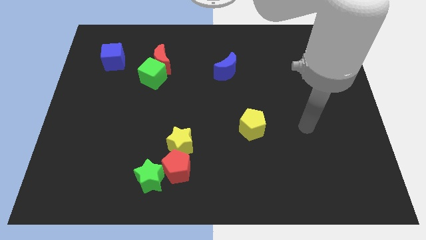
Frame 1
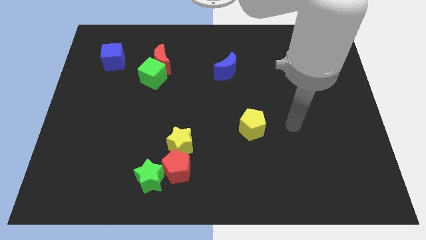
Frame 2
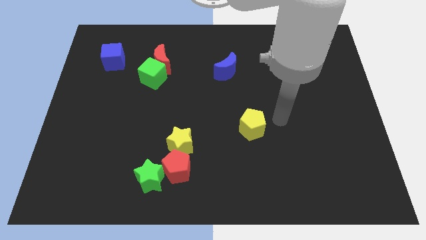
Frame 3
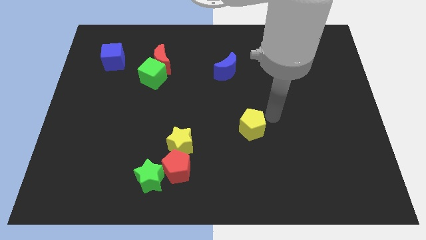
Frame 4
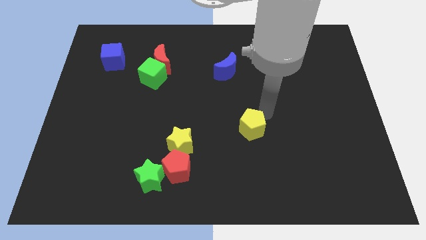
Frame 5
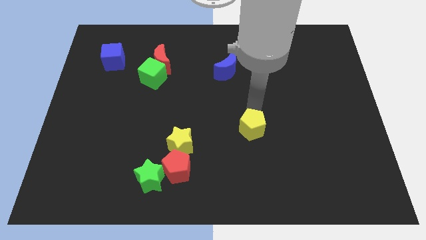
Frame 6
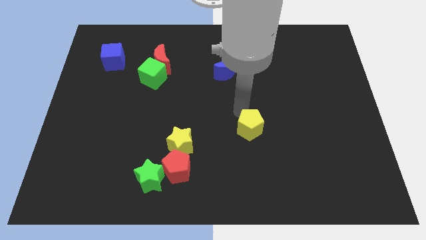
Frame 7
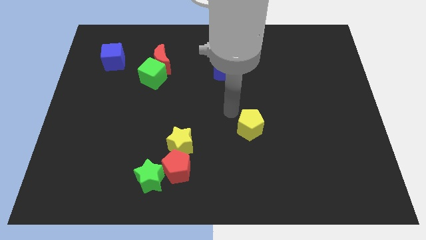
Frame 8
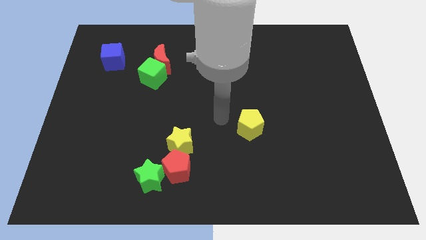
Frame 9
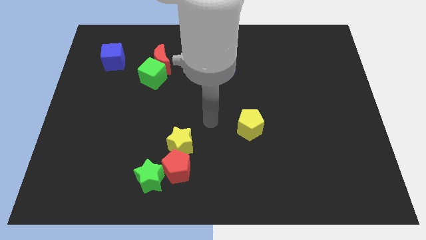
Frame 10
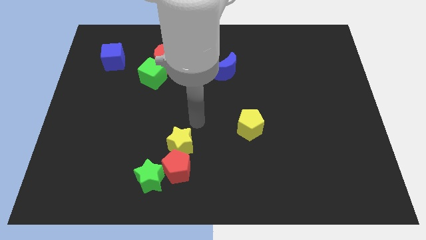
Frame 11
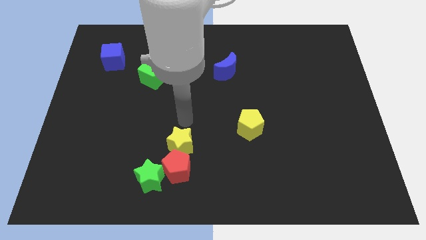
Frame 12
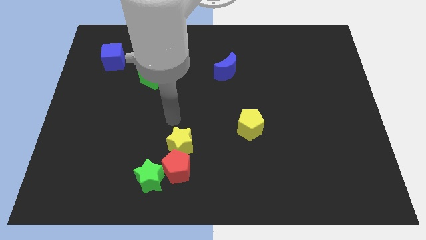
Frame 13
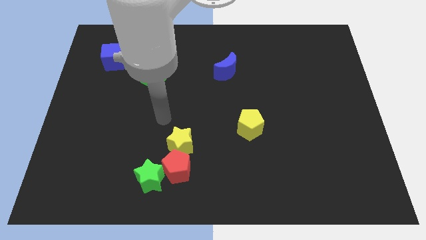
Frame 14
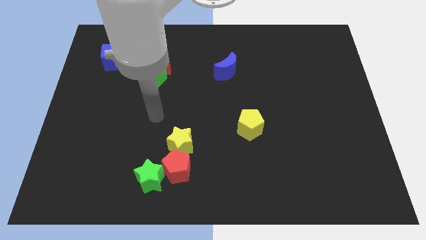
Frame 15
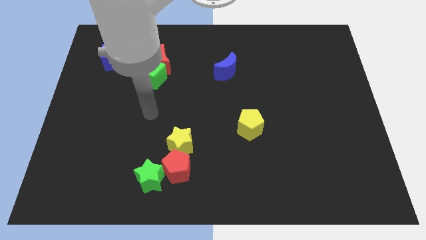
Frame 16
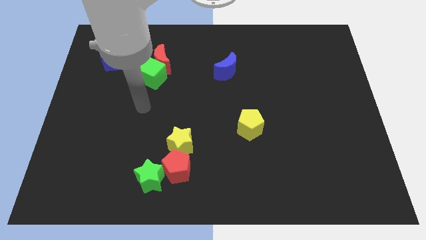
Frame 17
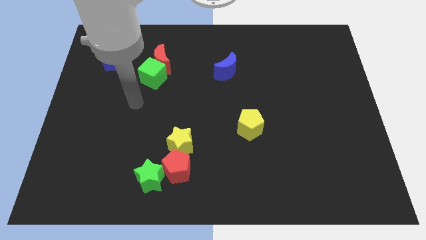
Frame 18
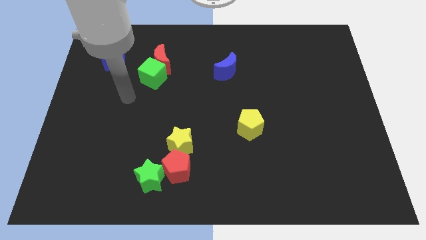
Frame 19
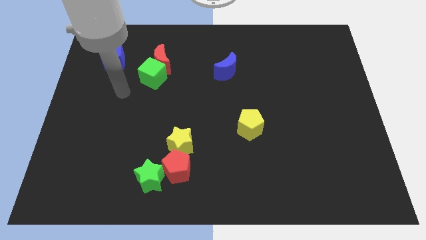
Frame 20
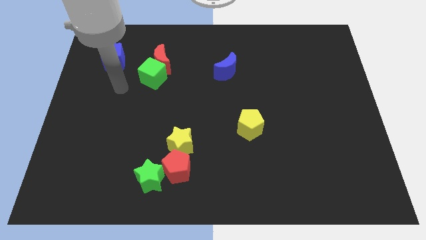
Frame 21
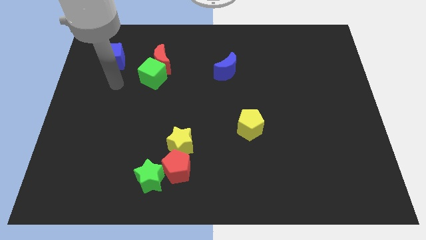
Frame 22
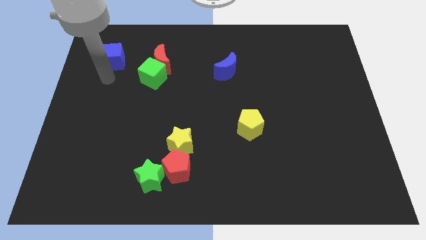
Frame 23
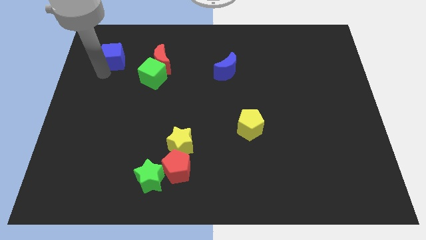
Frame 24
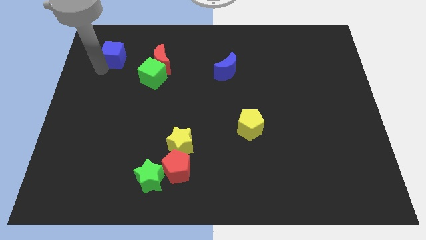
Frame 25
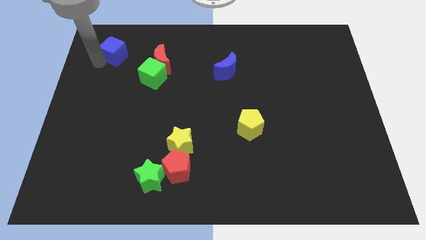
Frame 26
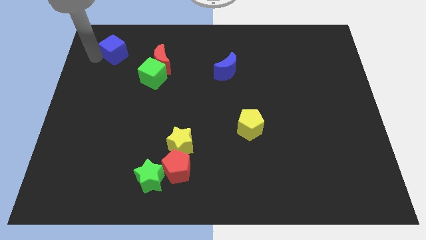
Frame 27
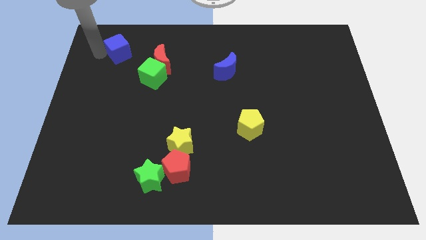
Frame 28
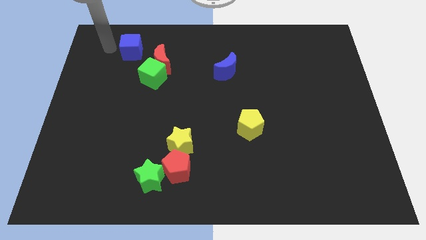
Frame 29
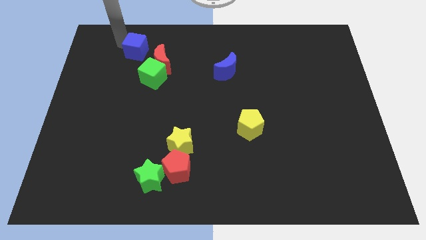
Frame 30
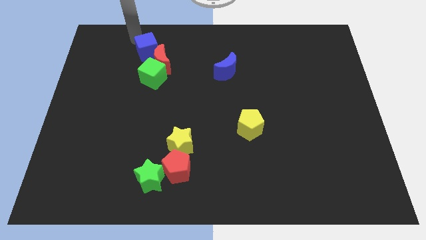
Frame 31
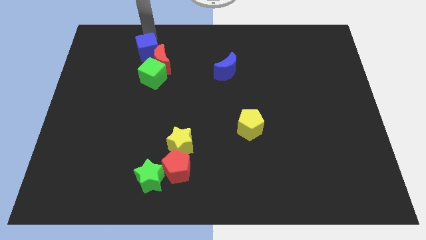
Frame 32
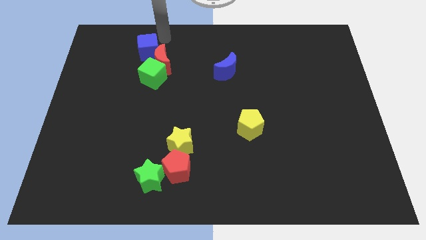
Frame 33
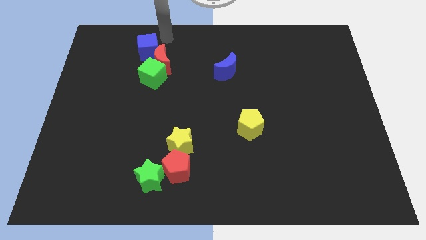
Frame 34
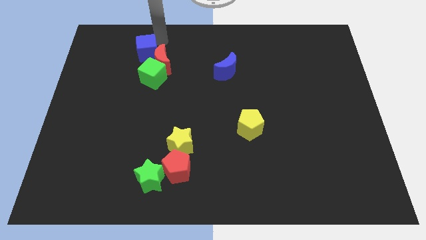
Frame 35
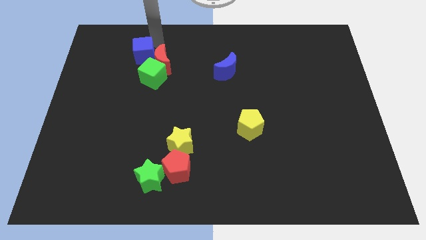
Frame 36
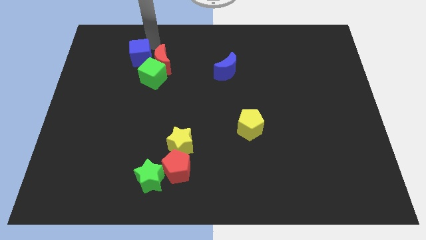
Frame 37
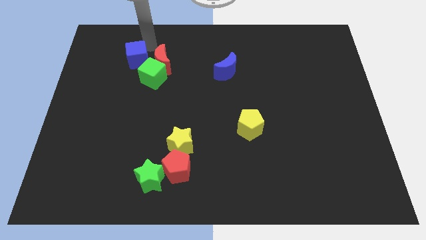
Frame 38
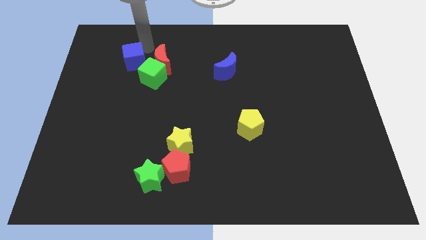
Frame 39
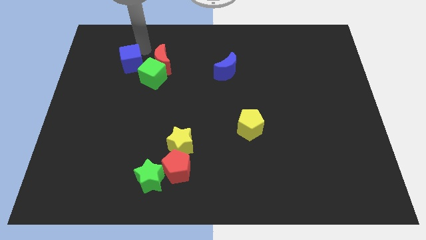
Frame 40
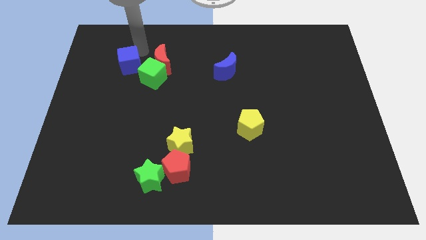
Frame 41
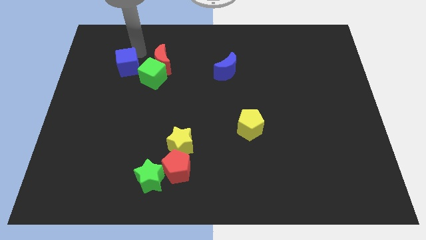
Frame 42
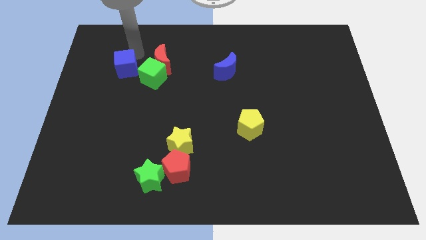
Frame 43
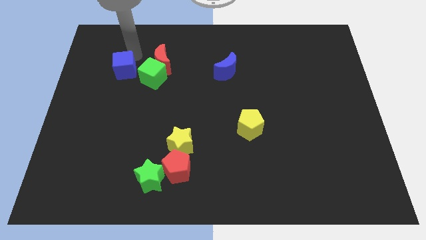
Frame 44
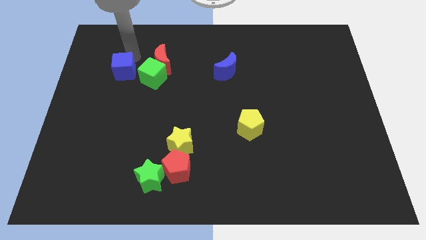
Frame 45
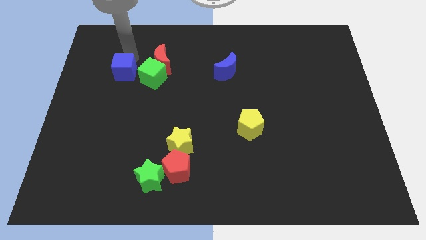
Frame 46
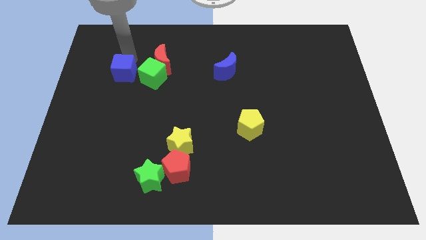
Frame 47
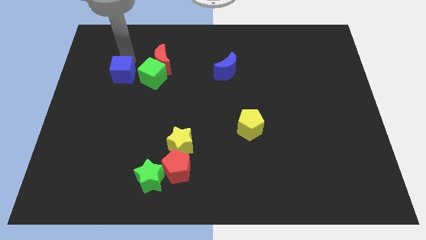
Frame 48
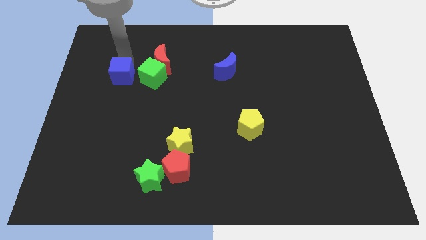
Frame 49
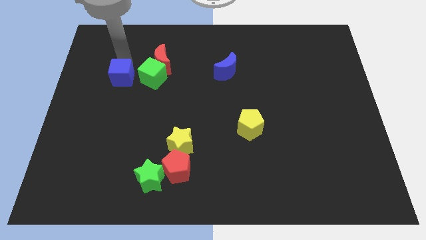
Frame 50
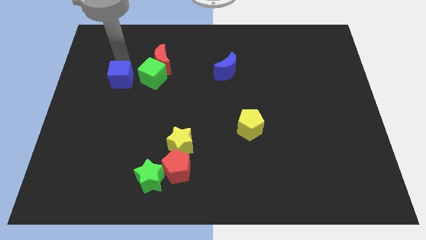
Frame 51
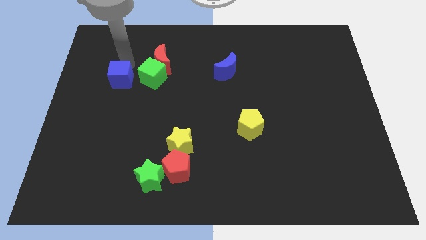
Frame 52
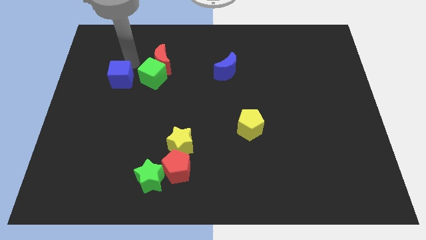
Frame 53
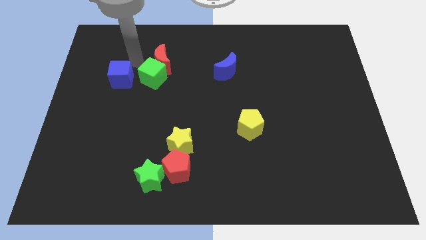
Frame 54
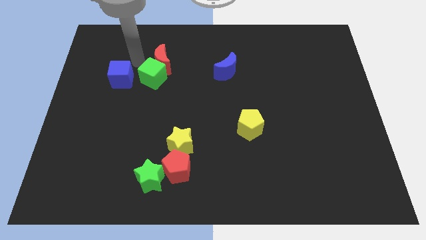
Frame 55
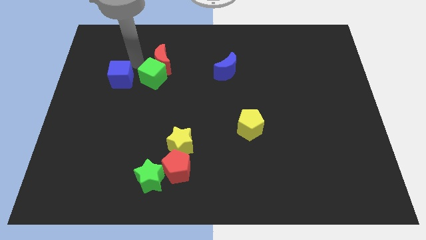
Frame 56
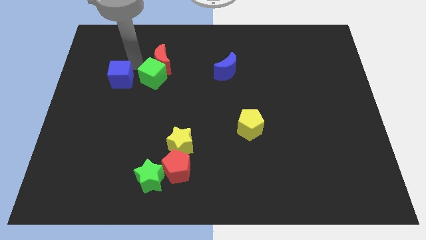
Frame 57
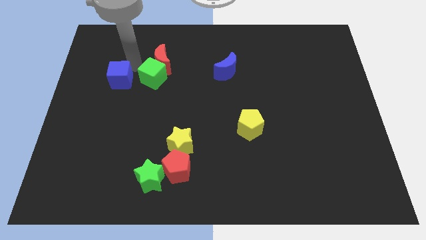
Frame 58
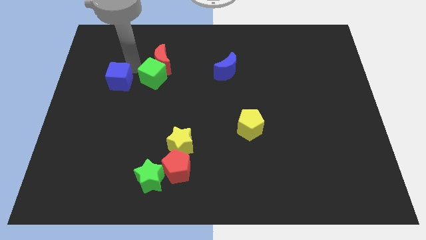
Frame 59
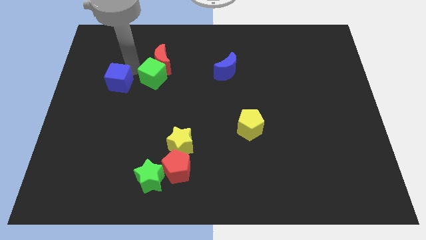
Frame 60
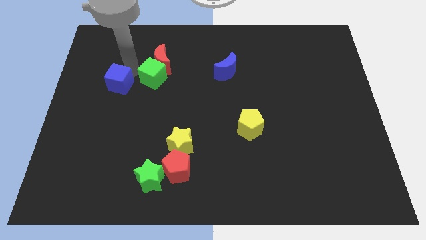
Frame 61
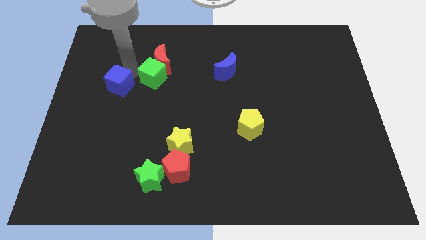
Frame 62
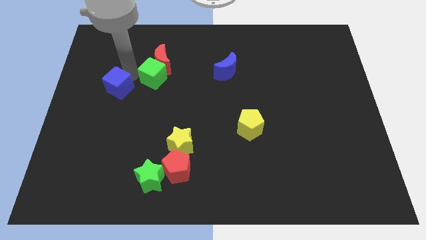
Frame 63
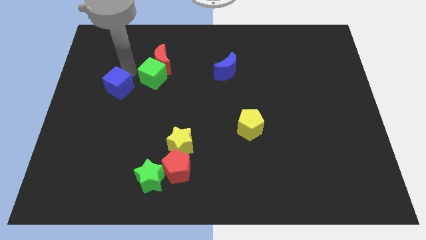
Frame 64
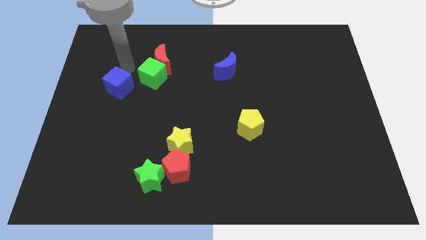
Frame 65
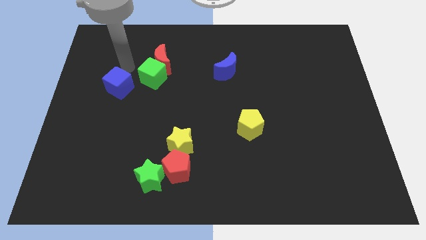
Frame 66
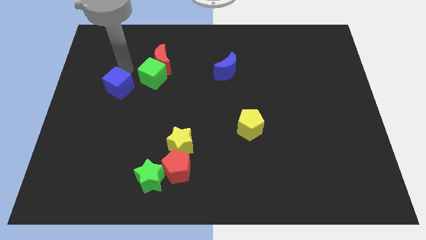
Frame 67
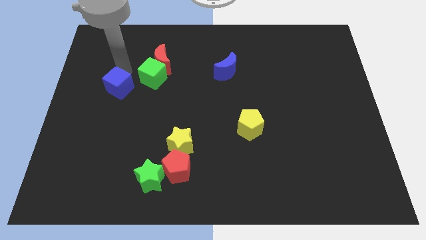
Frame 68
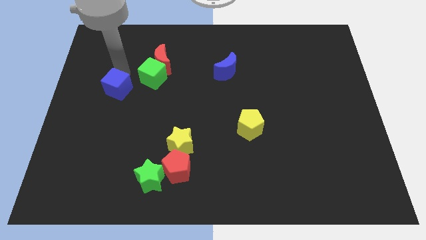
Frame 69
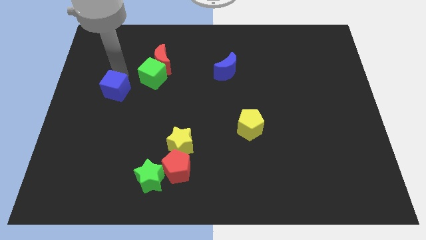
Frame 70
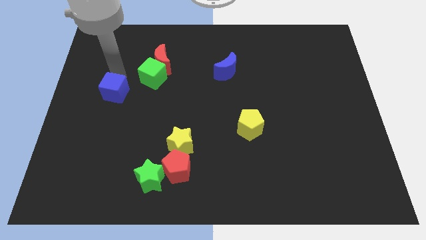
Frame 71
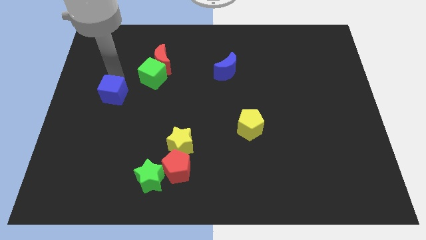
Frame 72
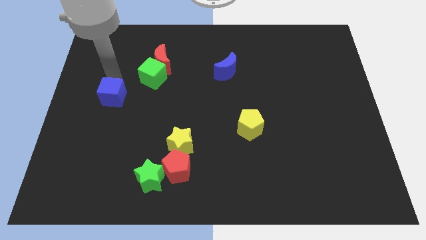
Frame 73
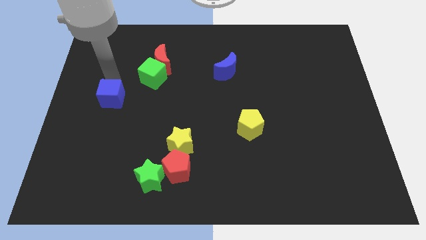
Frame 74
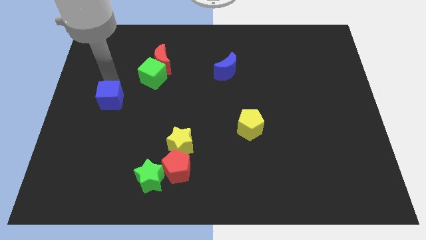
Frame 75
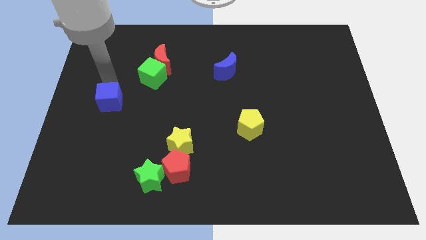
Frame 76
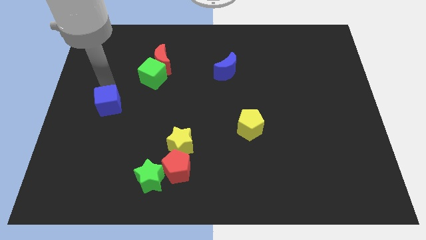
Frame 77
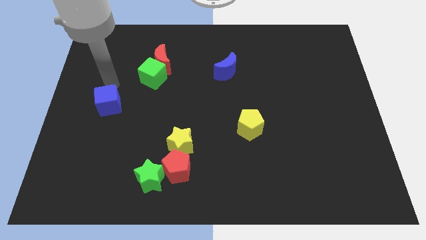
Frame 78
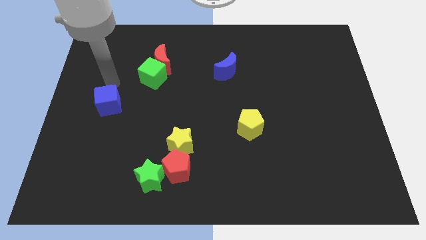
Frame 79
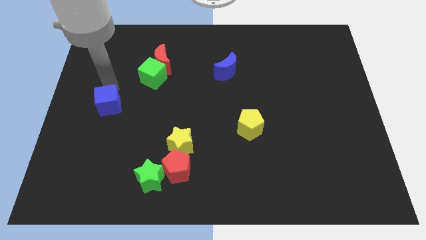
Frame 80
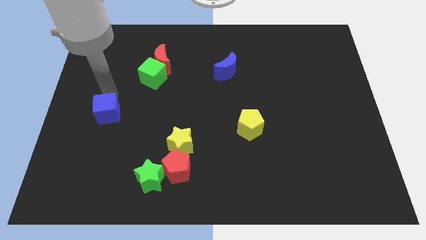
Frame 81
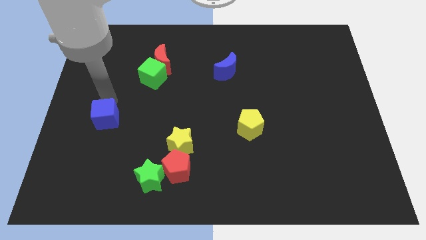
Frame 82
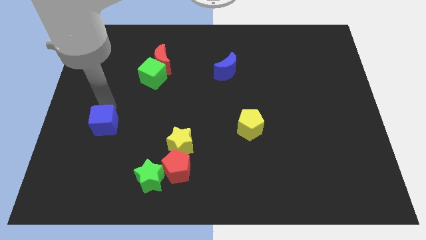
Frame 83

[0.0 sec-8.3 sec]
push the blue cube down
